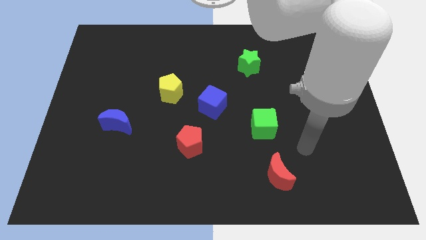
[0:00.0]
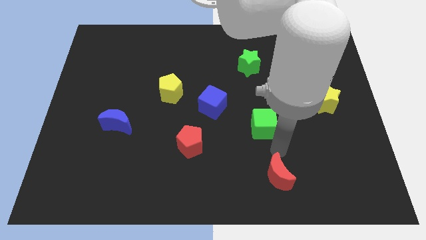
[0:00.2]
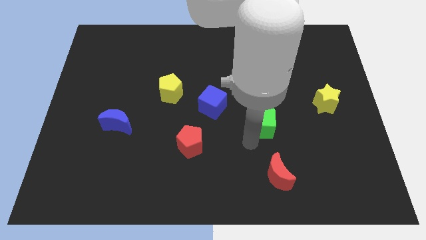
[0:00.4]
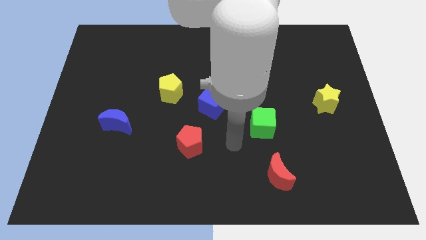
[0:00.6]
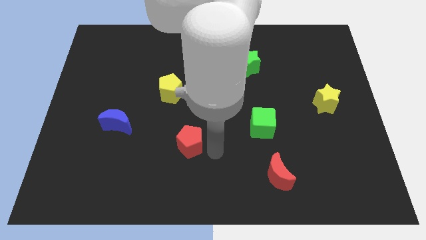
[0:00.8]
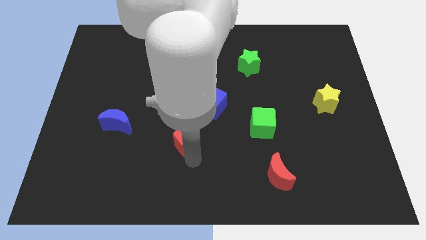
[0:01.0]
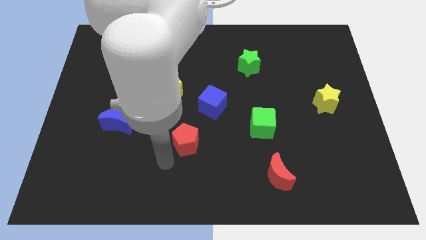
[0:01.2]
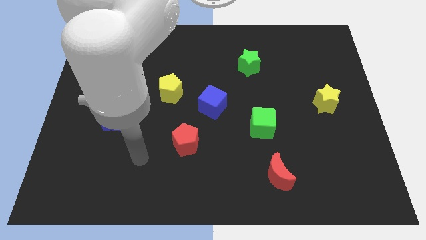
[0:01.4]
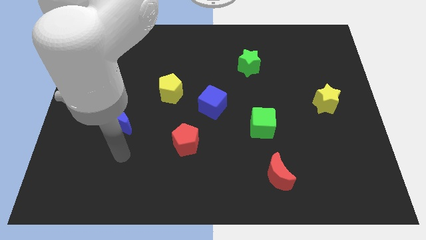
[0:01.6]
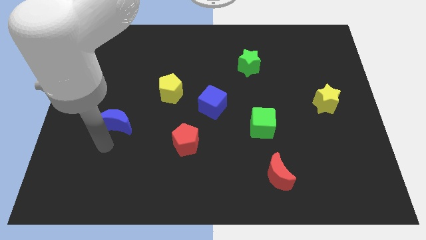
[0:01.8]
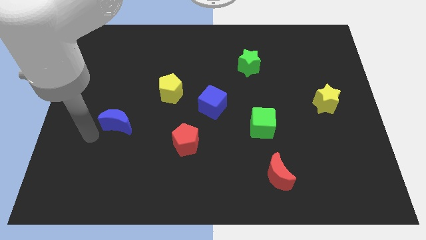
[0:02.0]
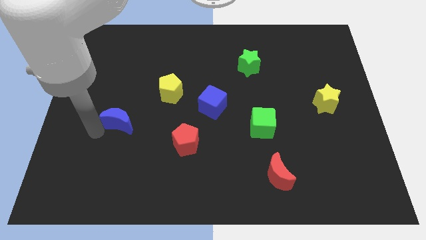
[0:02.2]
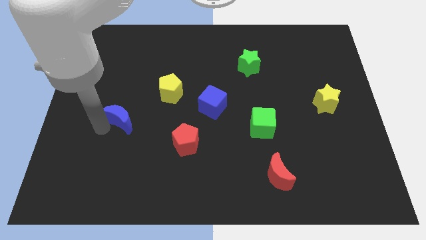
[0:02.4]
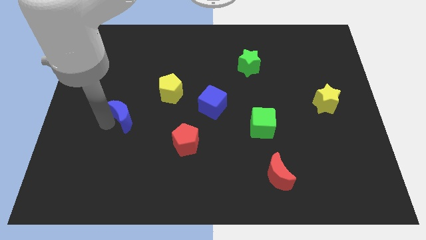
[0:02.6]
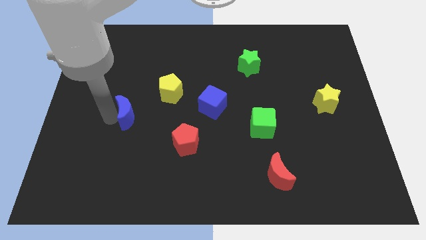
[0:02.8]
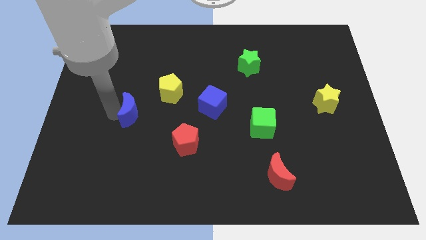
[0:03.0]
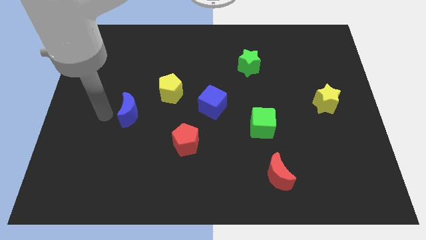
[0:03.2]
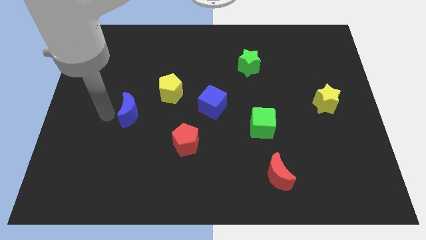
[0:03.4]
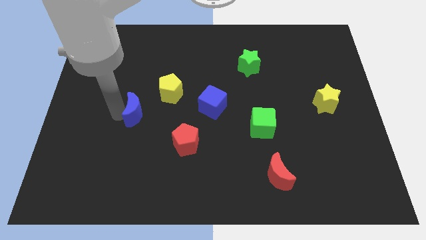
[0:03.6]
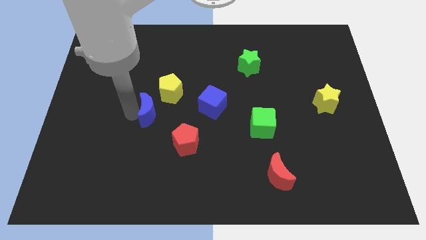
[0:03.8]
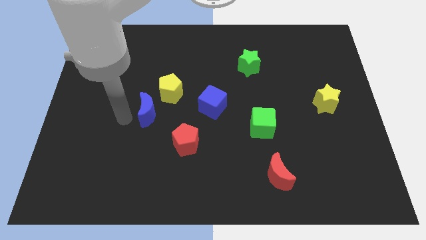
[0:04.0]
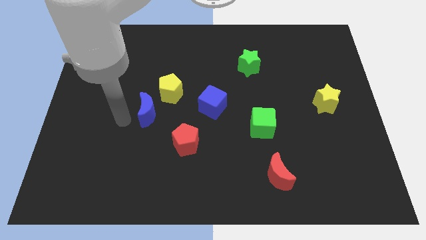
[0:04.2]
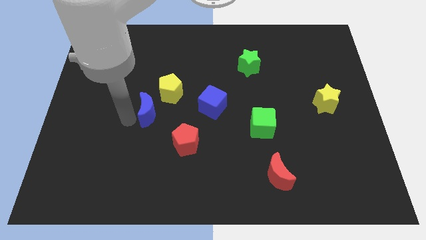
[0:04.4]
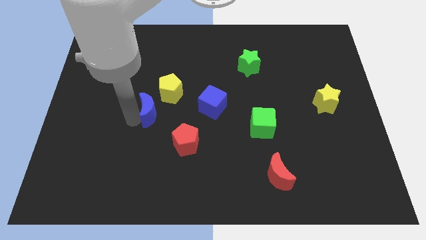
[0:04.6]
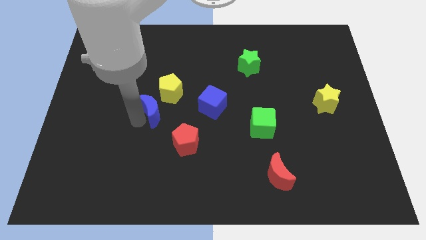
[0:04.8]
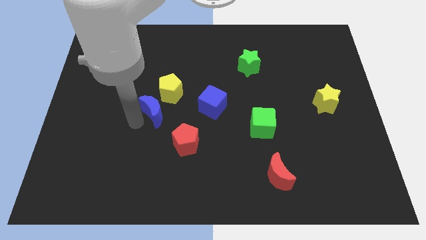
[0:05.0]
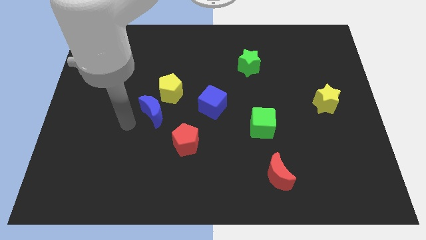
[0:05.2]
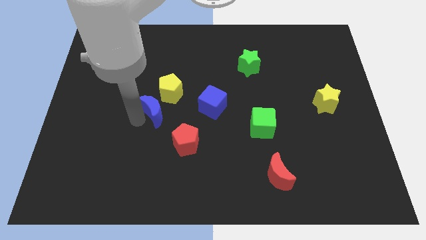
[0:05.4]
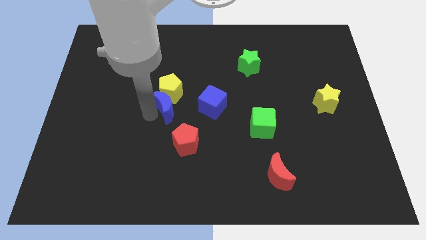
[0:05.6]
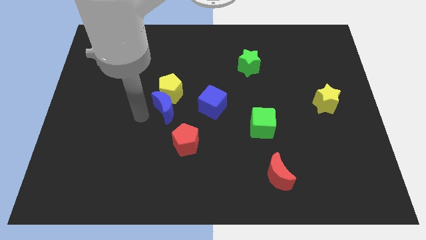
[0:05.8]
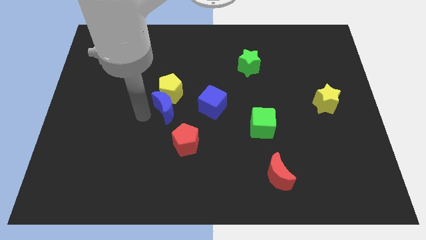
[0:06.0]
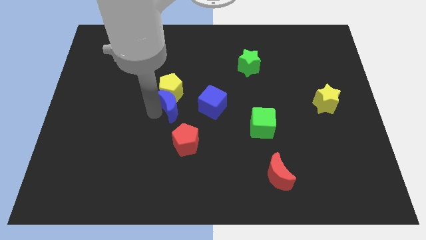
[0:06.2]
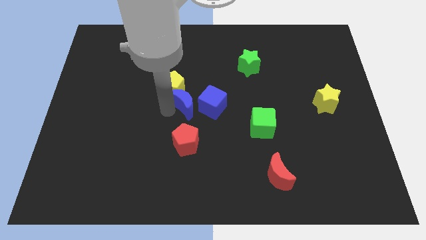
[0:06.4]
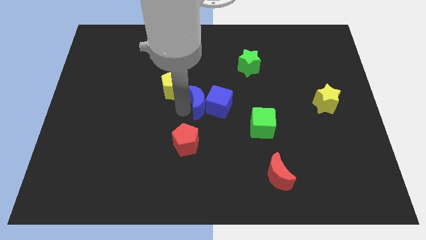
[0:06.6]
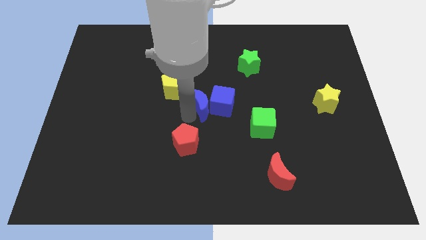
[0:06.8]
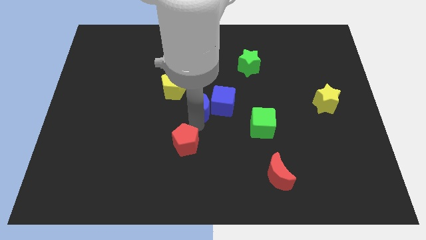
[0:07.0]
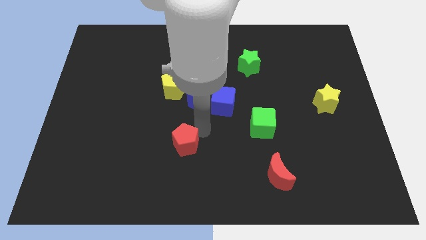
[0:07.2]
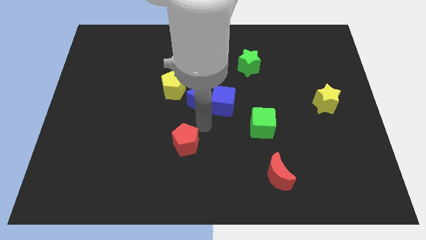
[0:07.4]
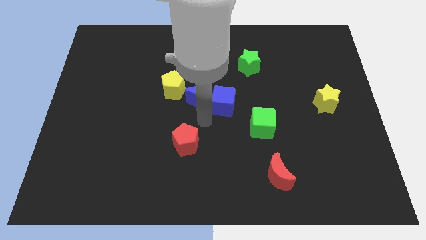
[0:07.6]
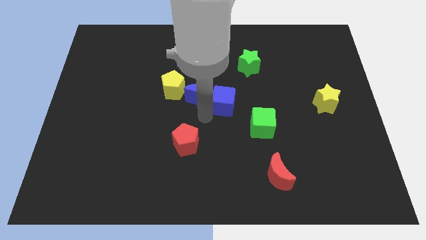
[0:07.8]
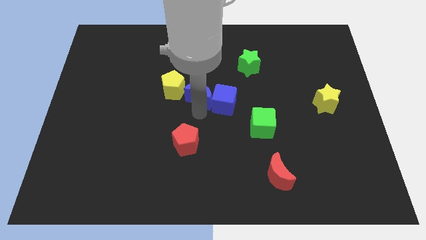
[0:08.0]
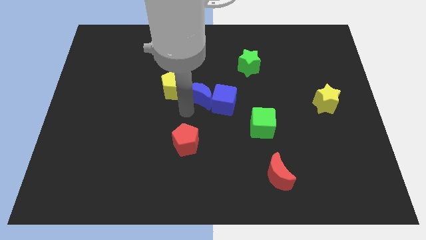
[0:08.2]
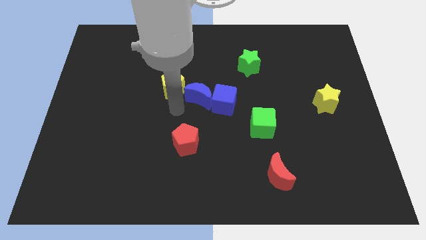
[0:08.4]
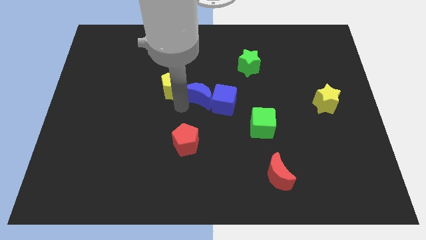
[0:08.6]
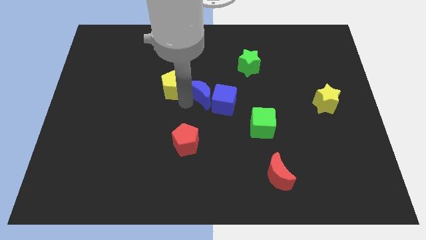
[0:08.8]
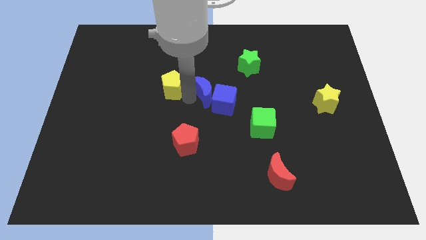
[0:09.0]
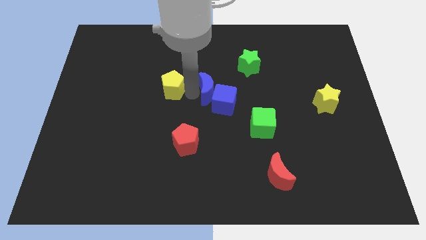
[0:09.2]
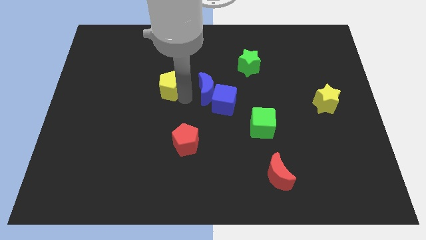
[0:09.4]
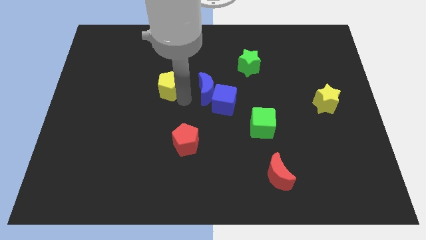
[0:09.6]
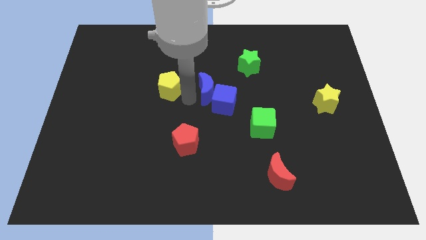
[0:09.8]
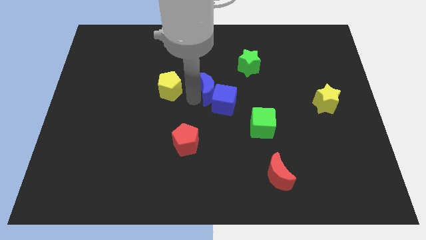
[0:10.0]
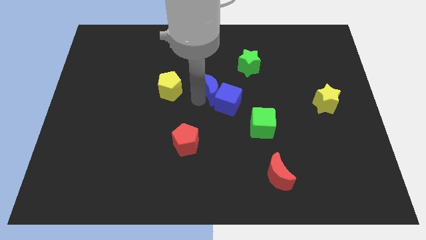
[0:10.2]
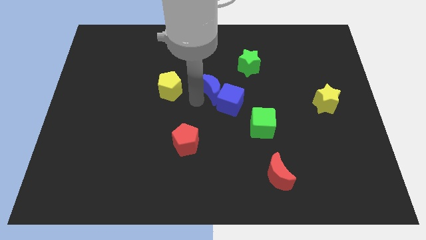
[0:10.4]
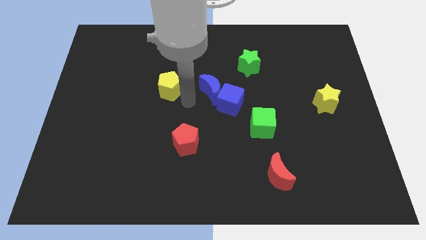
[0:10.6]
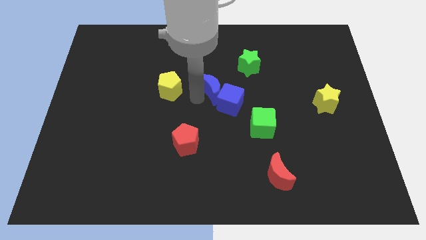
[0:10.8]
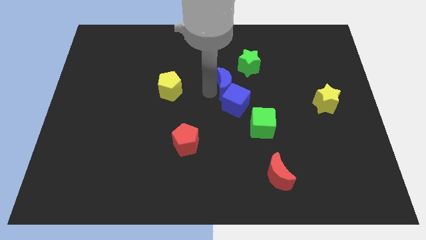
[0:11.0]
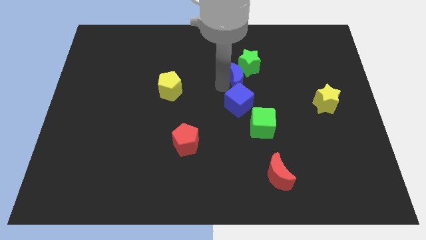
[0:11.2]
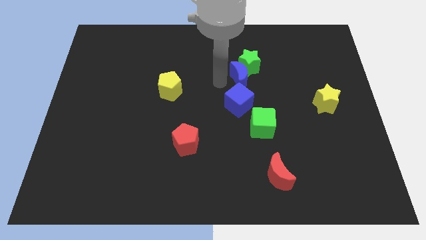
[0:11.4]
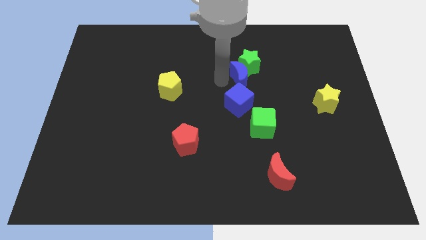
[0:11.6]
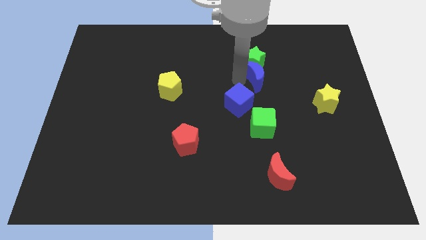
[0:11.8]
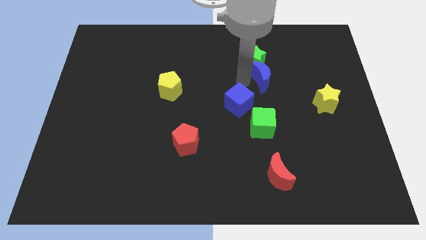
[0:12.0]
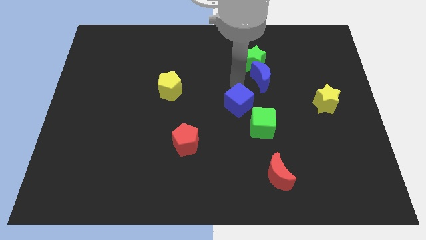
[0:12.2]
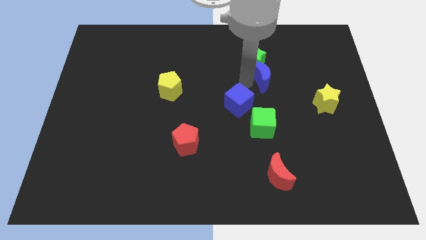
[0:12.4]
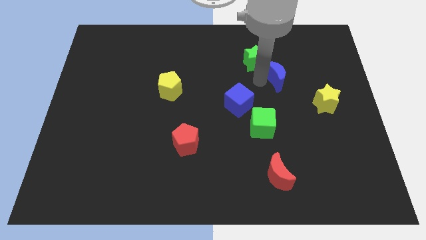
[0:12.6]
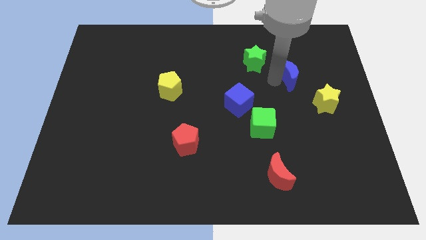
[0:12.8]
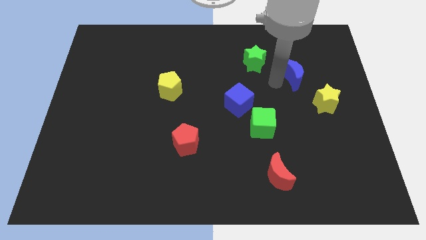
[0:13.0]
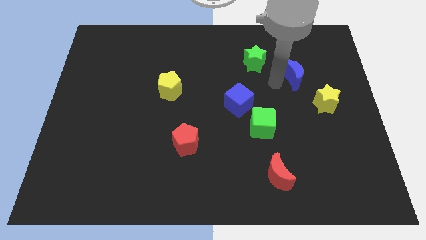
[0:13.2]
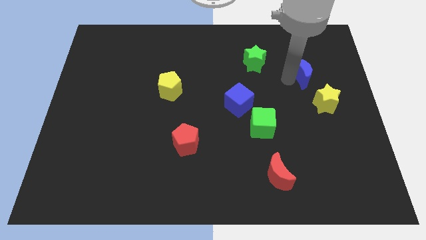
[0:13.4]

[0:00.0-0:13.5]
slide the blue moon above the yellow star
